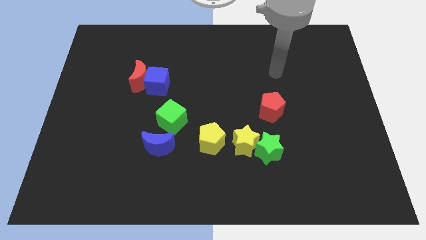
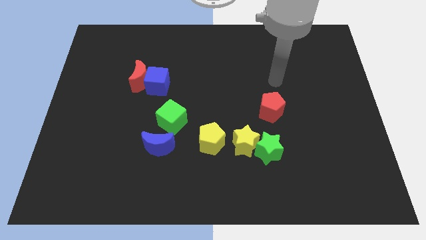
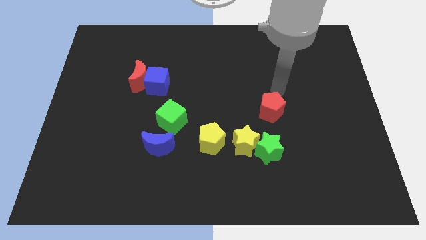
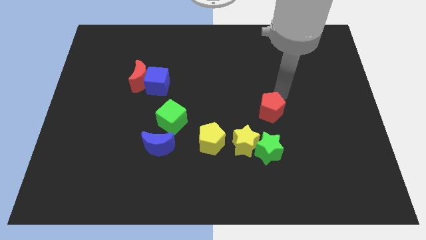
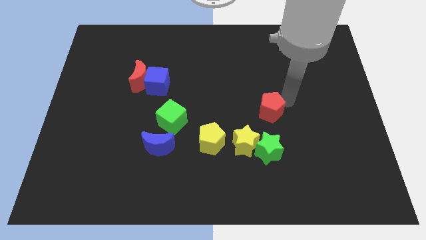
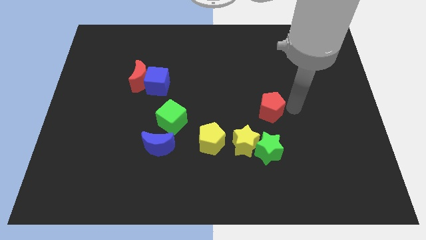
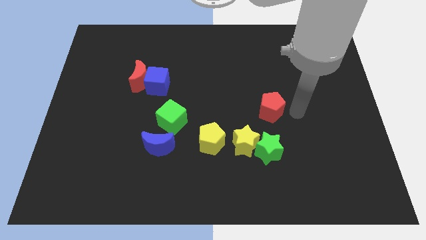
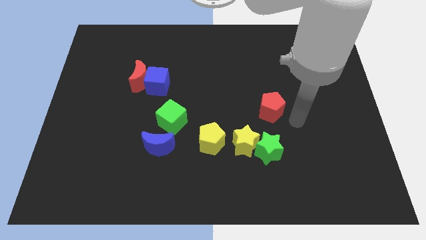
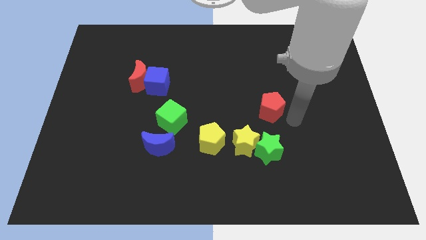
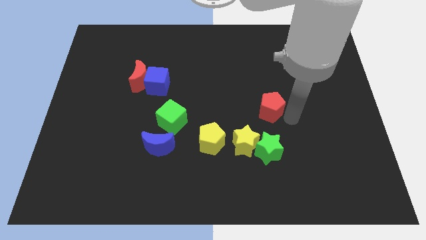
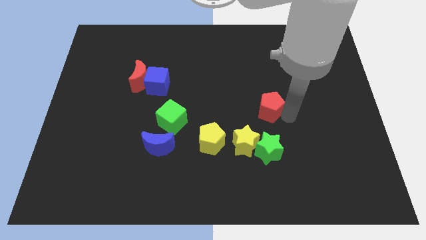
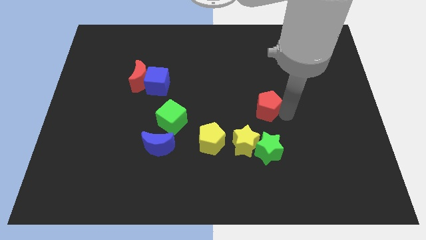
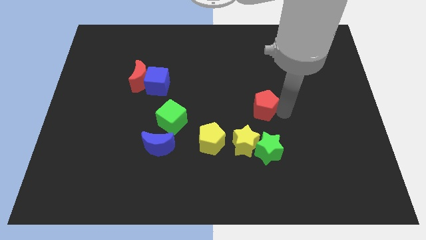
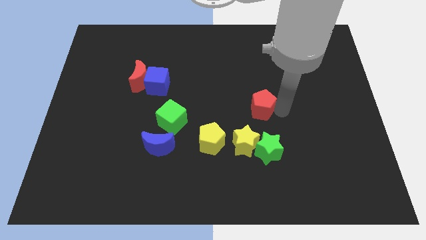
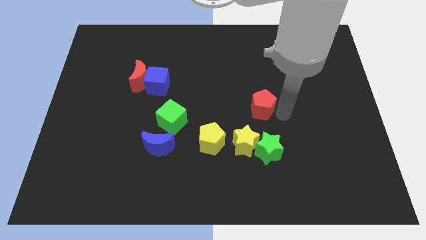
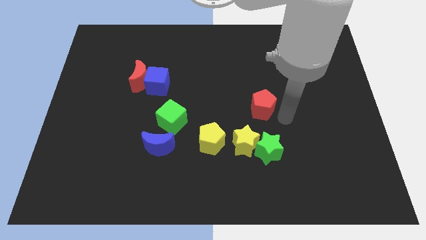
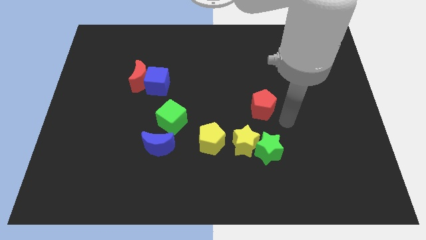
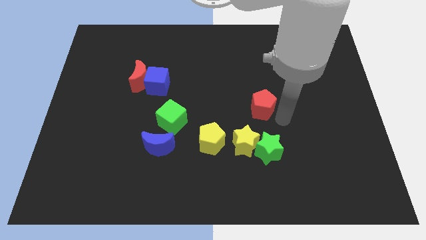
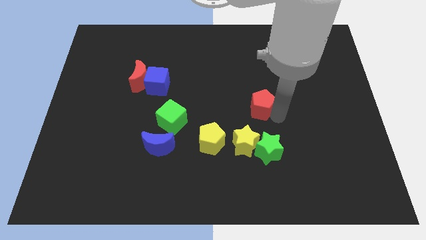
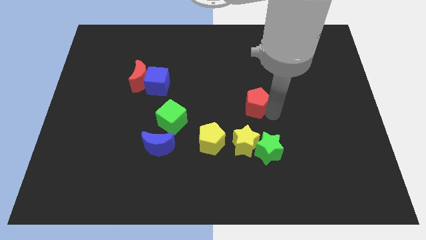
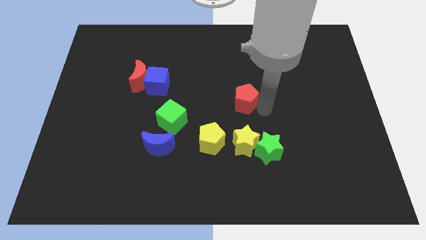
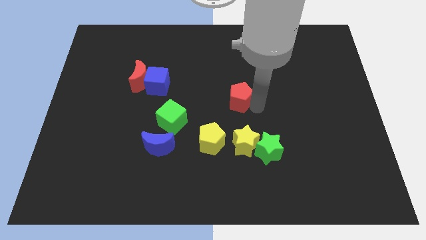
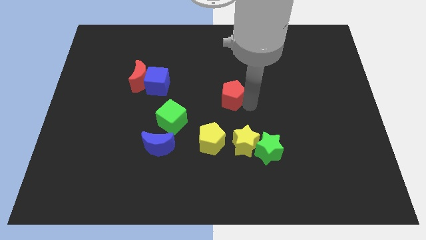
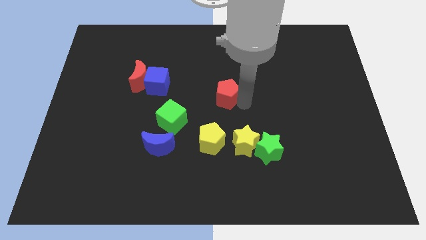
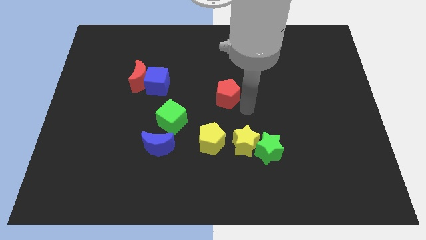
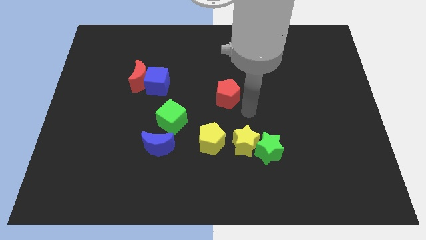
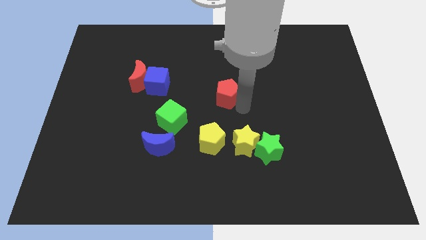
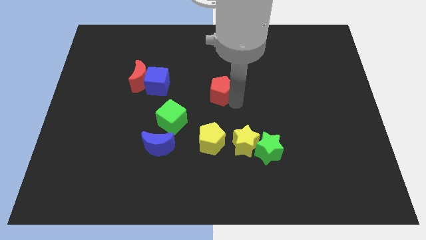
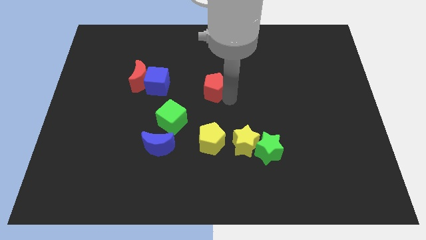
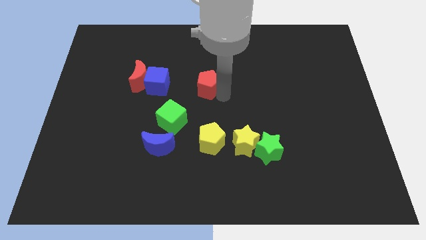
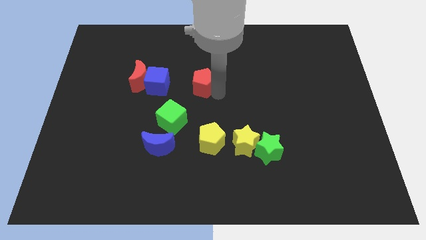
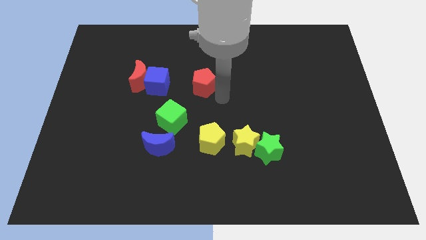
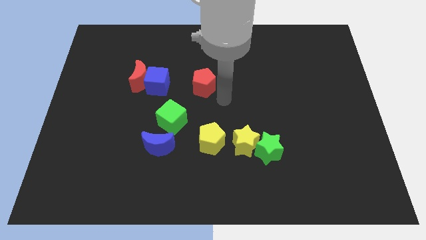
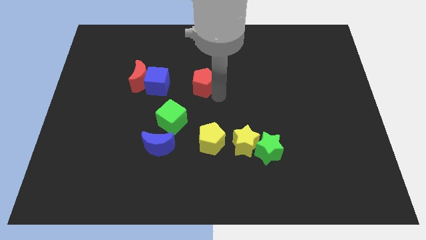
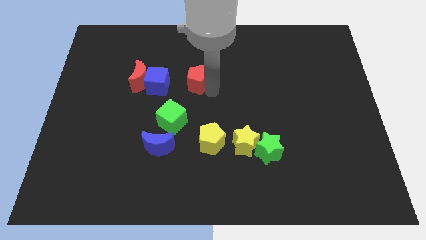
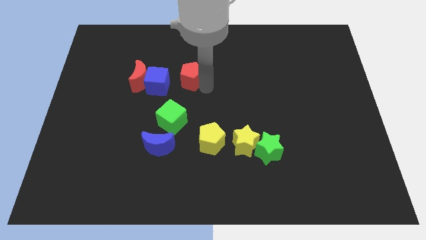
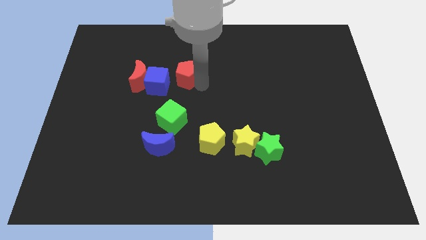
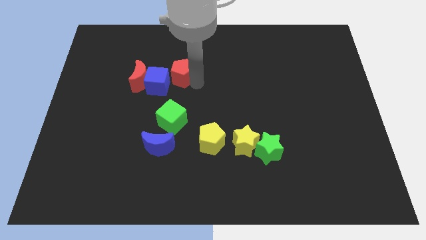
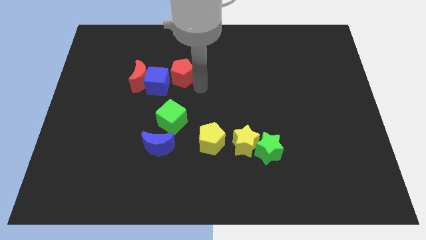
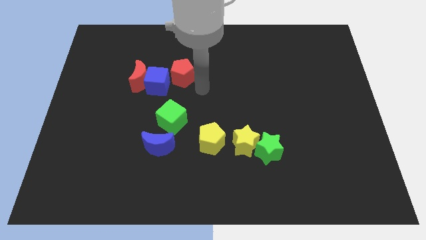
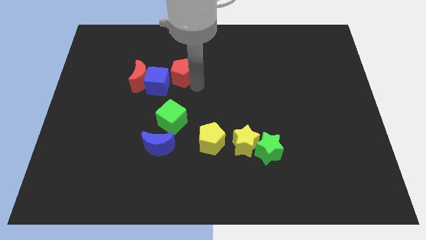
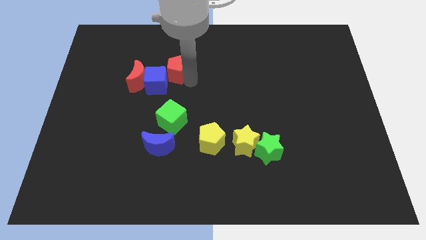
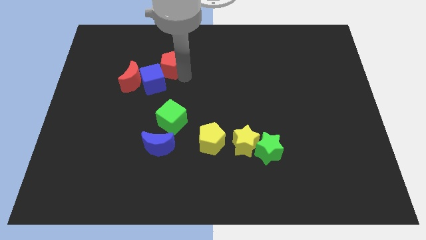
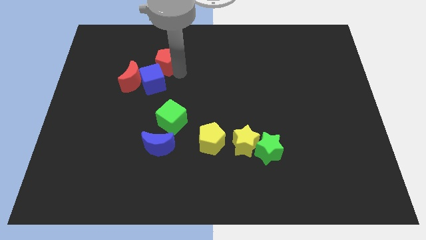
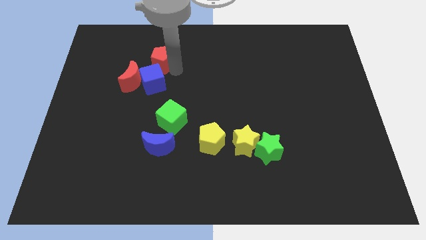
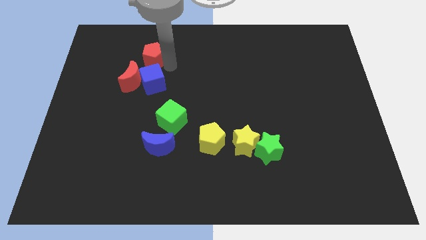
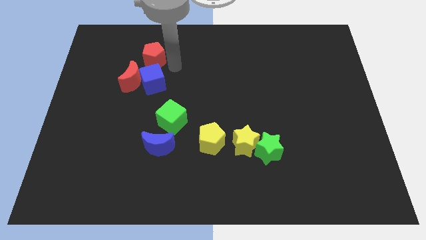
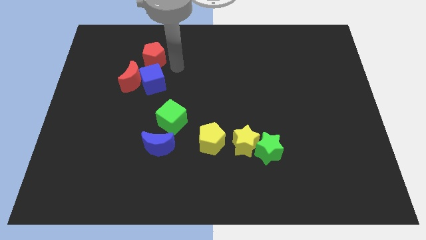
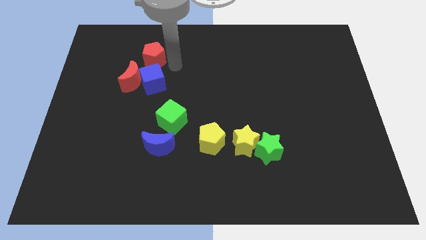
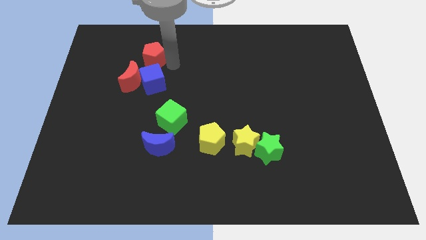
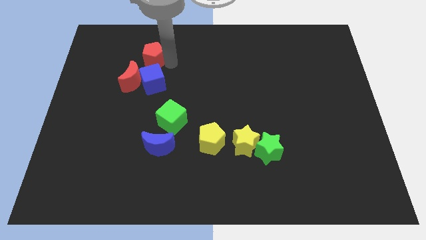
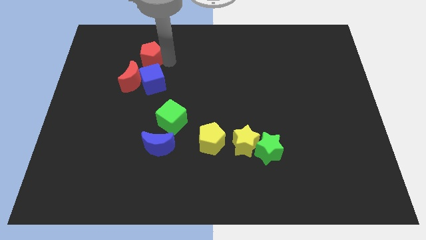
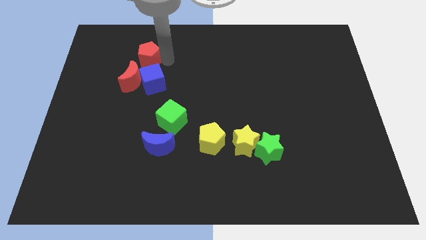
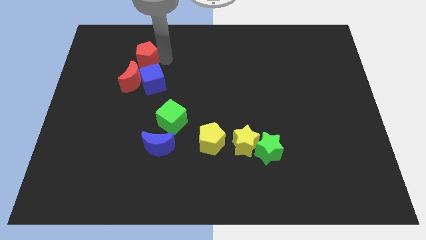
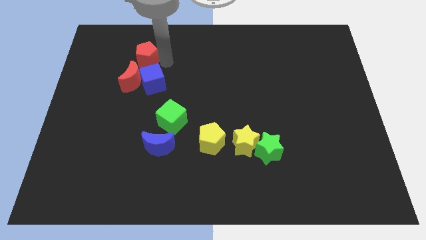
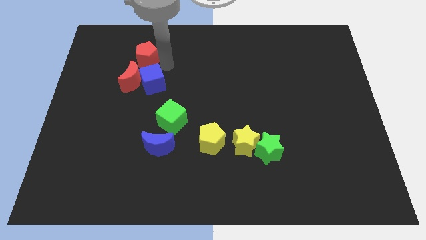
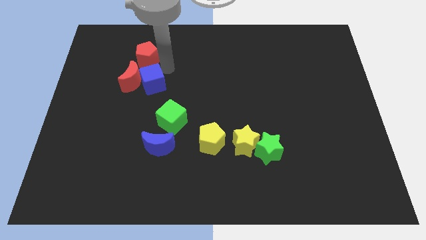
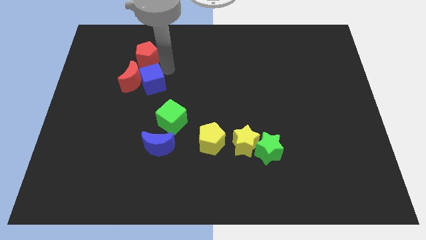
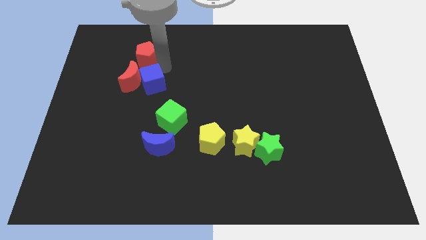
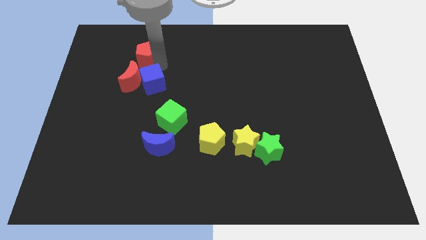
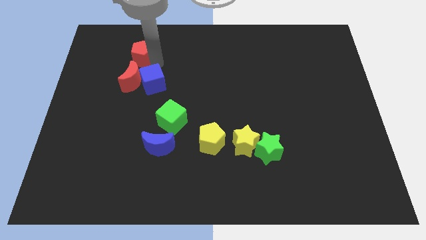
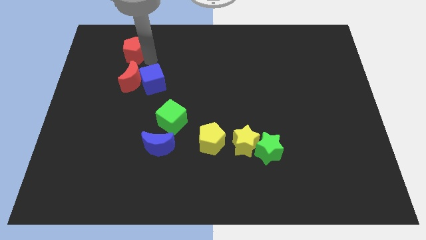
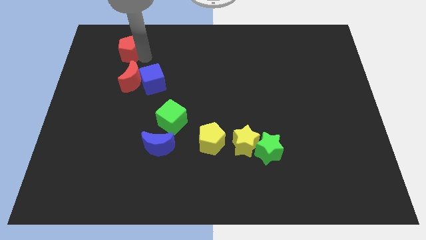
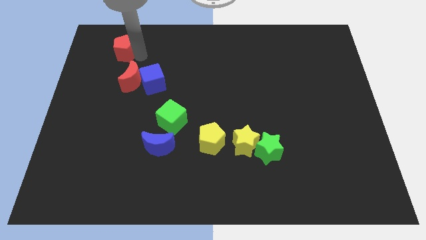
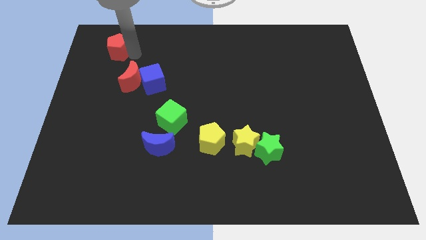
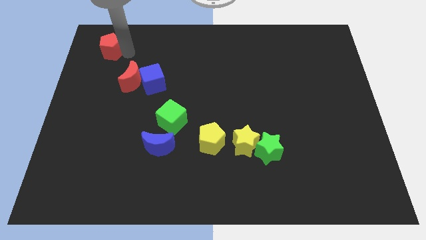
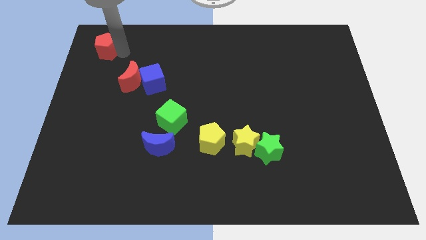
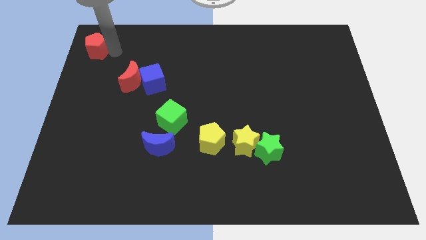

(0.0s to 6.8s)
put the red pentagon to the top left of the board

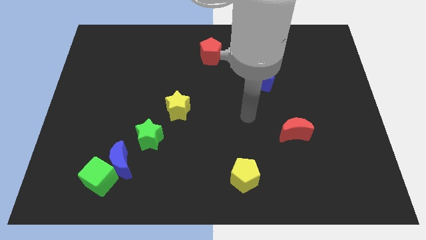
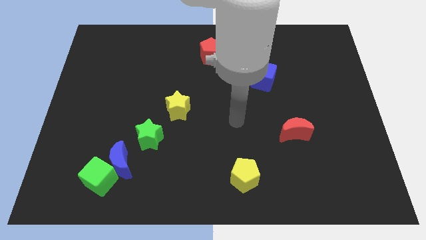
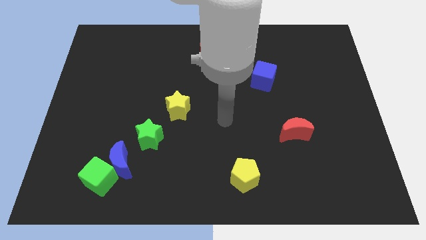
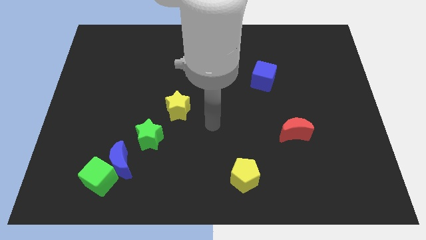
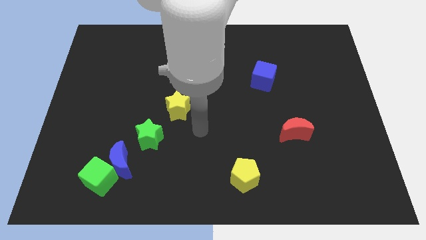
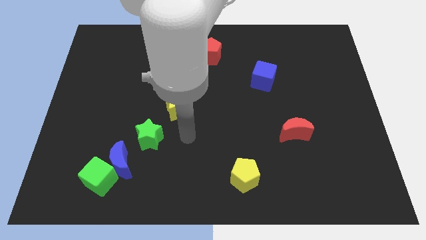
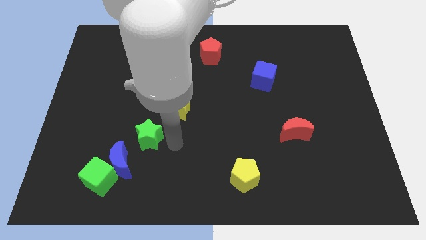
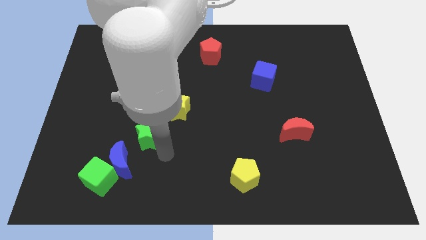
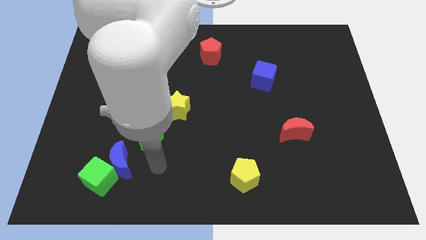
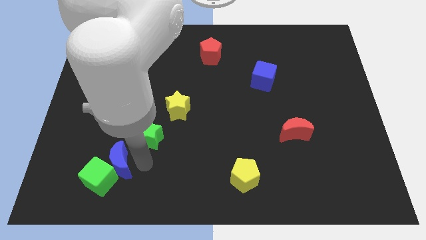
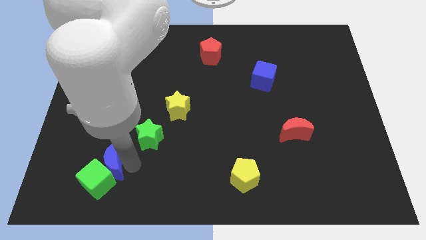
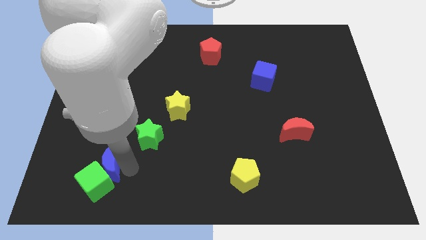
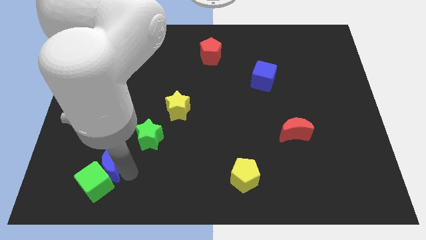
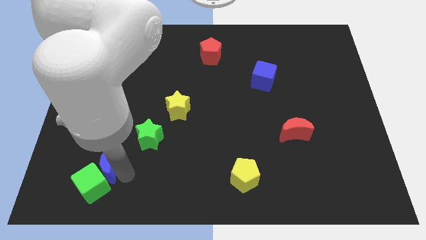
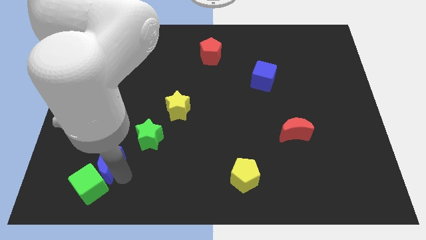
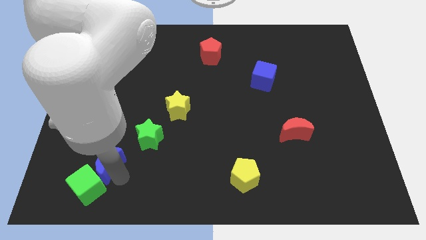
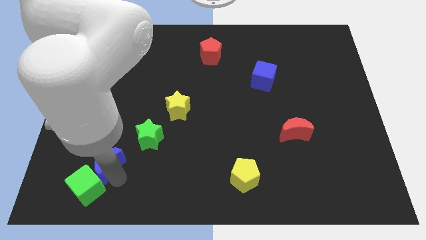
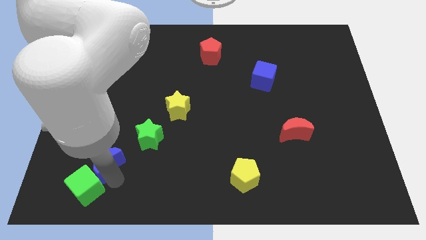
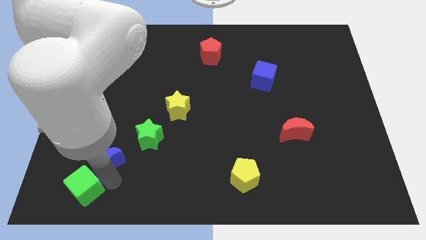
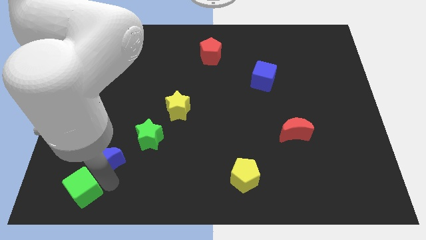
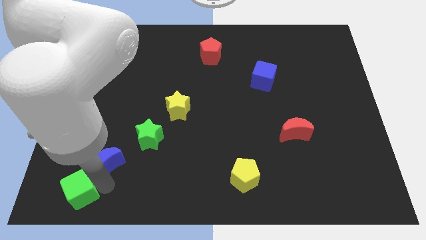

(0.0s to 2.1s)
push the green cube to the bottom left
